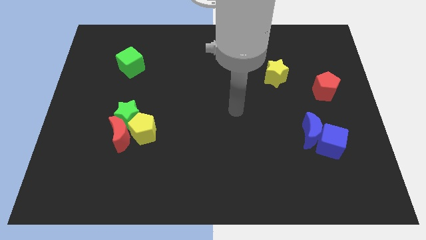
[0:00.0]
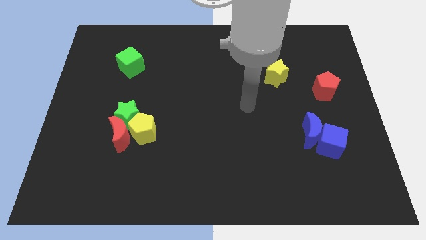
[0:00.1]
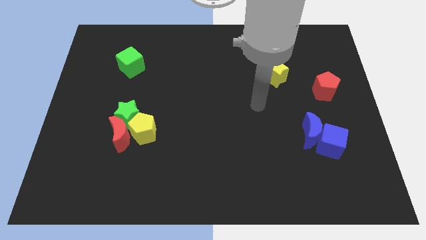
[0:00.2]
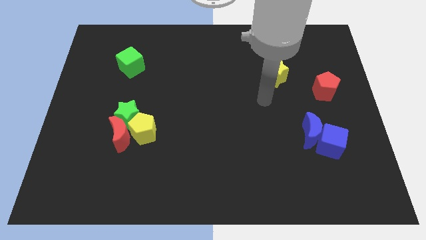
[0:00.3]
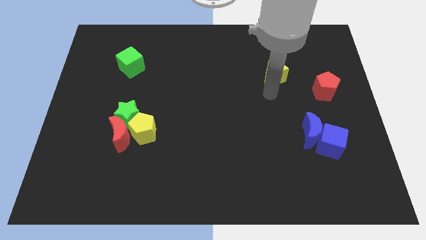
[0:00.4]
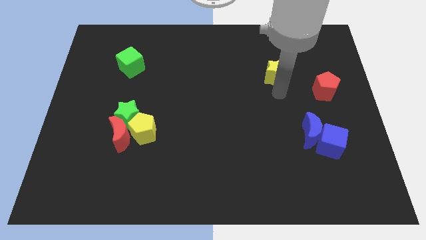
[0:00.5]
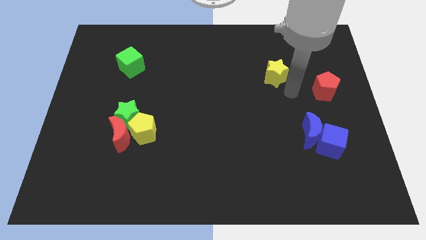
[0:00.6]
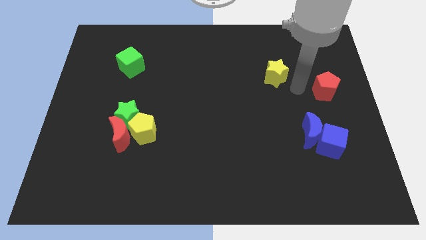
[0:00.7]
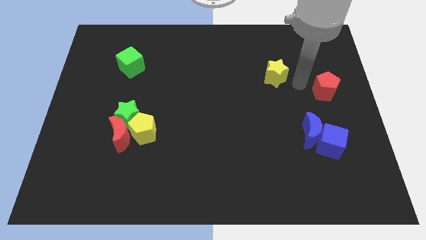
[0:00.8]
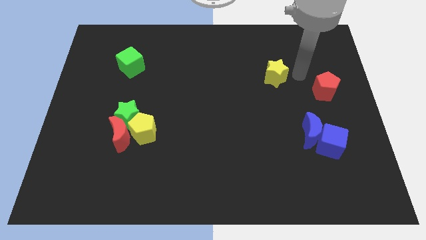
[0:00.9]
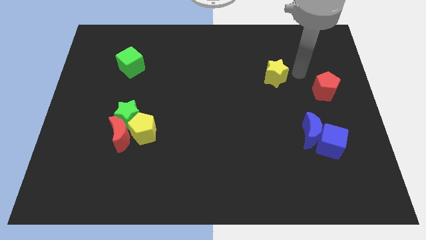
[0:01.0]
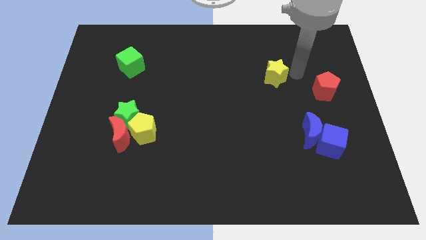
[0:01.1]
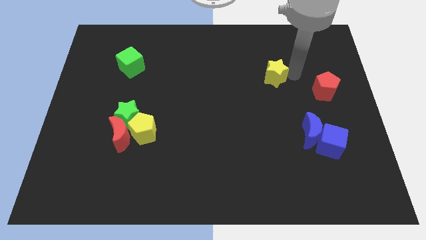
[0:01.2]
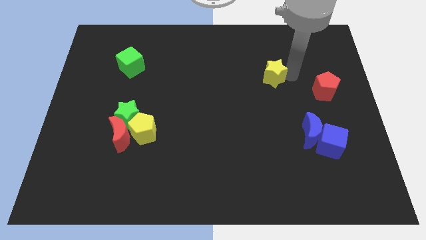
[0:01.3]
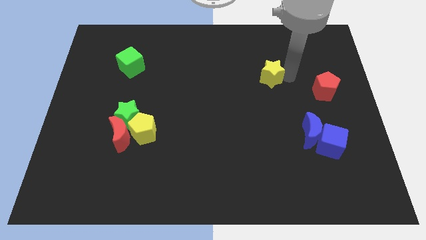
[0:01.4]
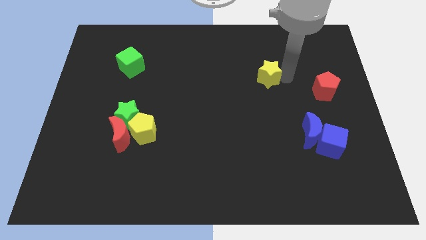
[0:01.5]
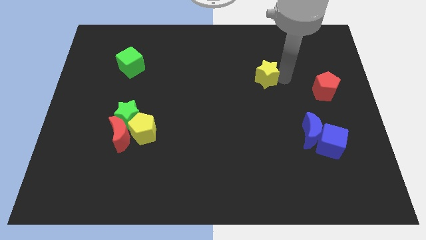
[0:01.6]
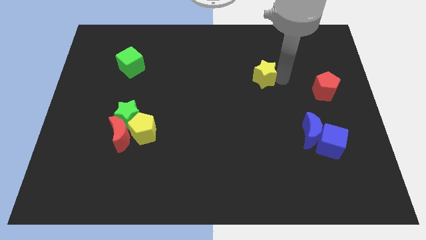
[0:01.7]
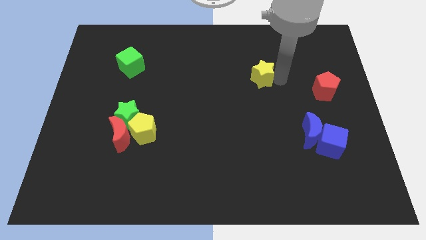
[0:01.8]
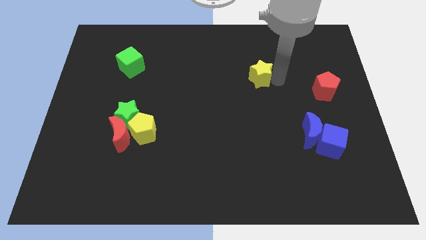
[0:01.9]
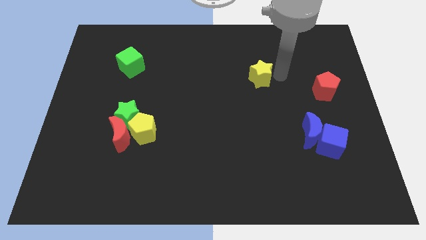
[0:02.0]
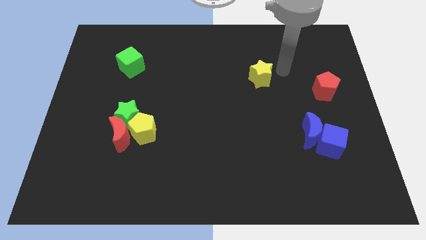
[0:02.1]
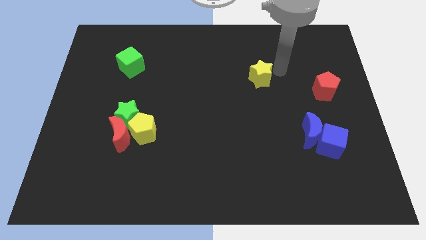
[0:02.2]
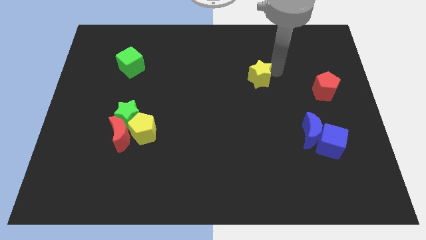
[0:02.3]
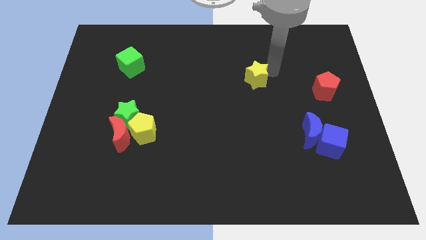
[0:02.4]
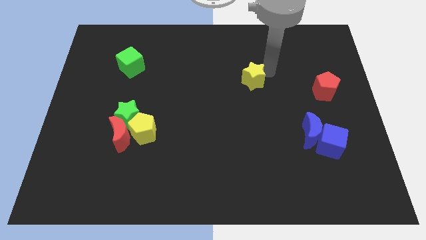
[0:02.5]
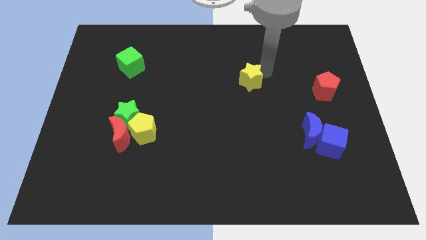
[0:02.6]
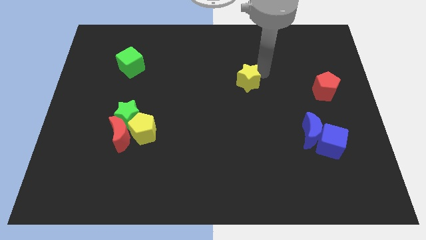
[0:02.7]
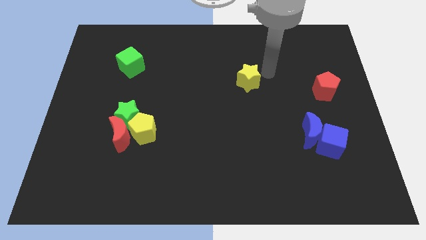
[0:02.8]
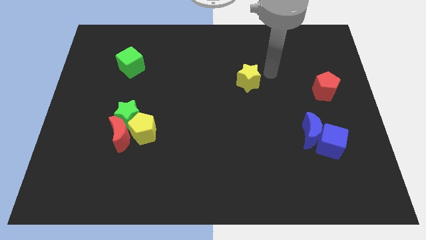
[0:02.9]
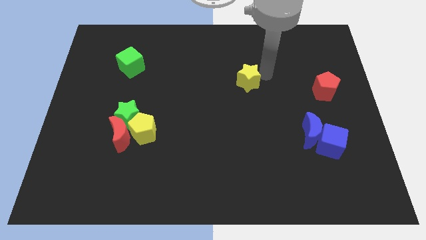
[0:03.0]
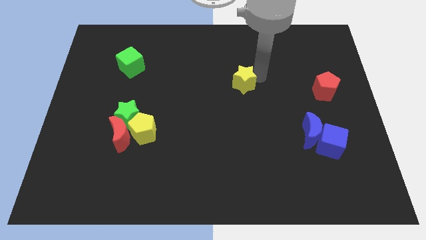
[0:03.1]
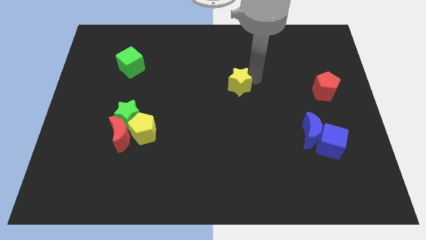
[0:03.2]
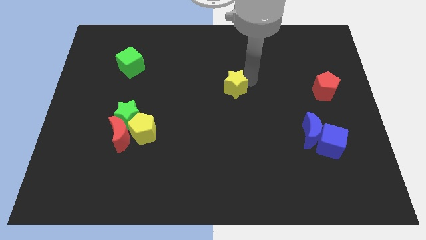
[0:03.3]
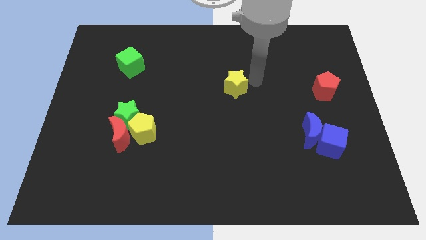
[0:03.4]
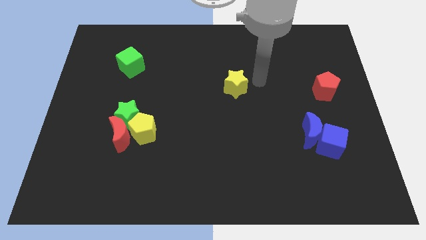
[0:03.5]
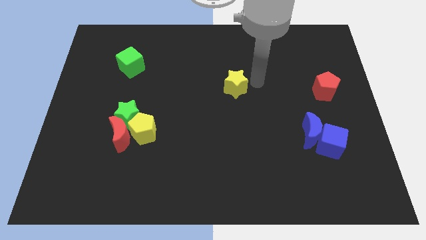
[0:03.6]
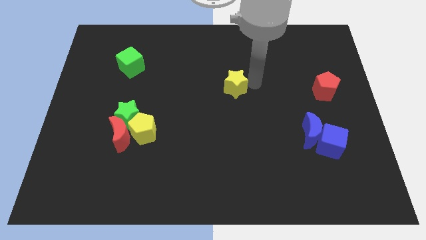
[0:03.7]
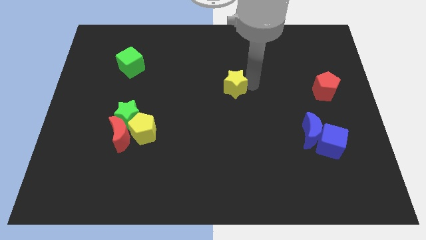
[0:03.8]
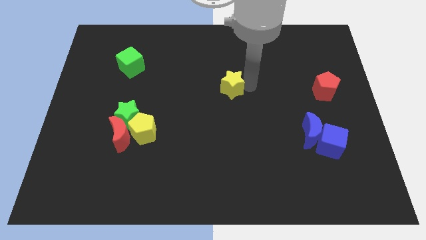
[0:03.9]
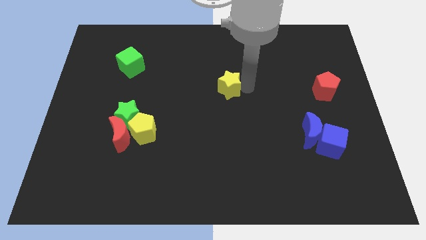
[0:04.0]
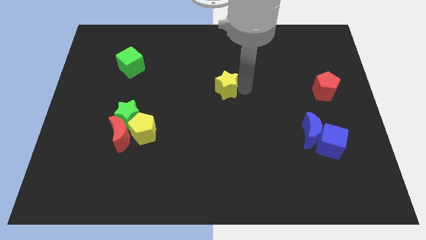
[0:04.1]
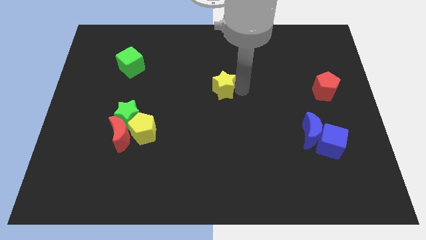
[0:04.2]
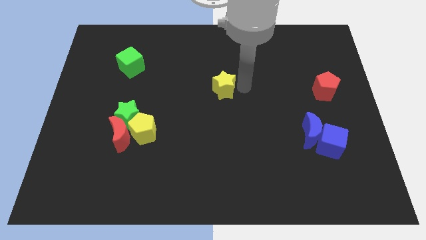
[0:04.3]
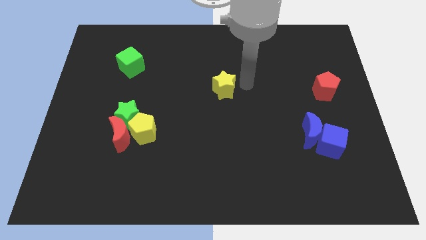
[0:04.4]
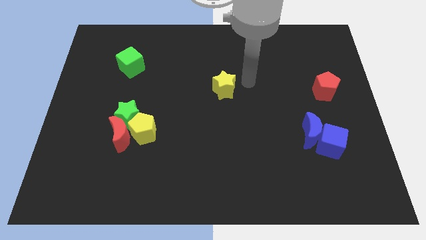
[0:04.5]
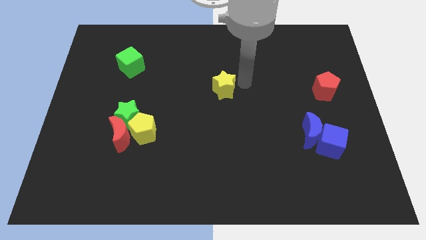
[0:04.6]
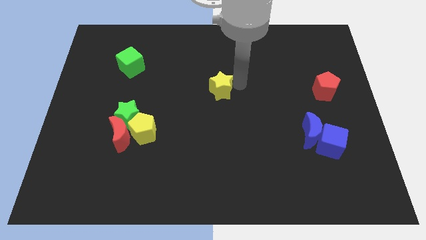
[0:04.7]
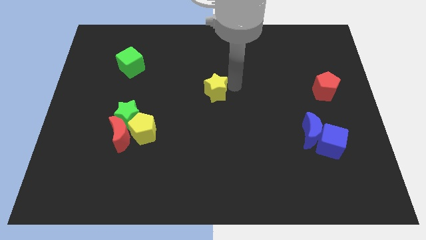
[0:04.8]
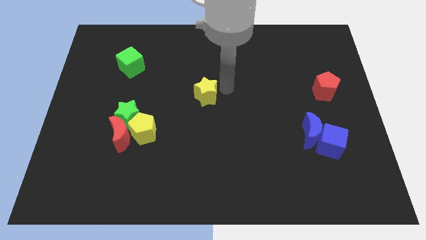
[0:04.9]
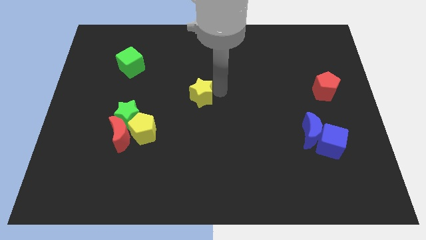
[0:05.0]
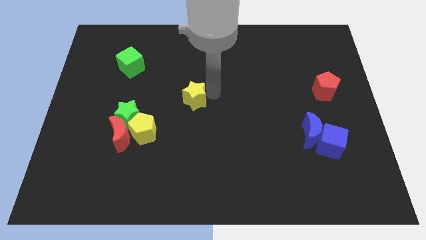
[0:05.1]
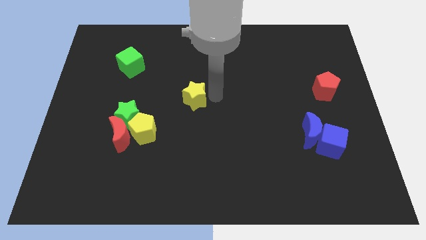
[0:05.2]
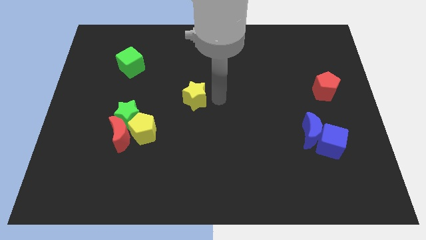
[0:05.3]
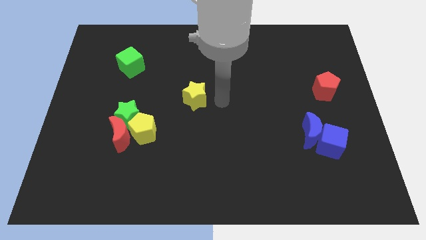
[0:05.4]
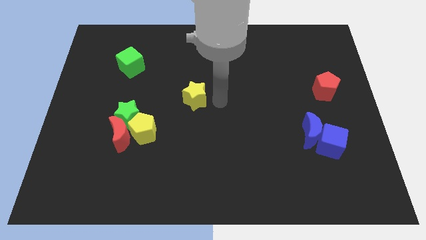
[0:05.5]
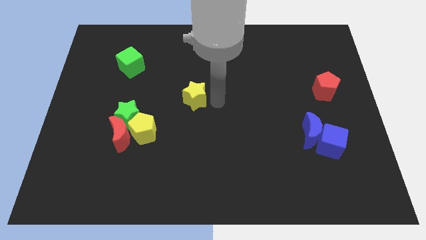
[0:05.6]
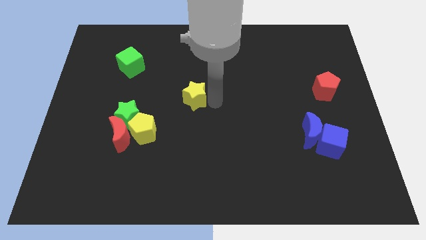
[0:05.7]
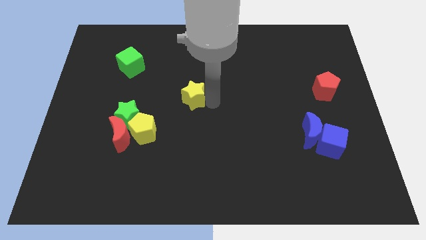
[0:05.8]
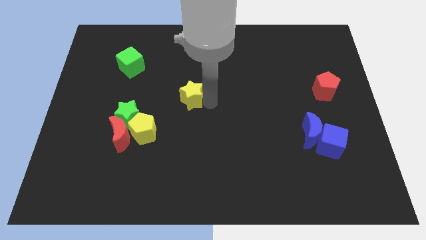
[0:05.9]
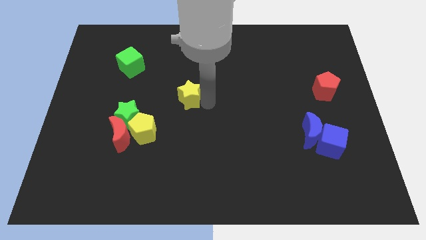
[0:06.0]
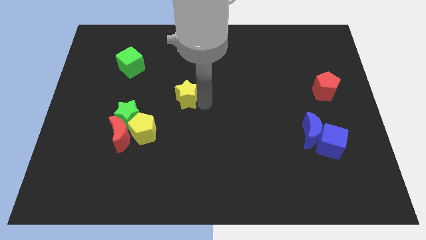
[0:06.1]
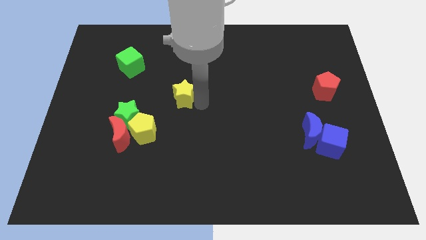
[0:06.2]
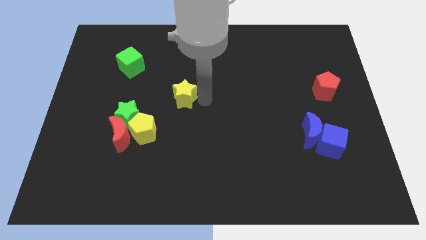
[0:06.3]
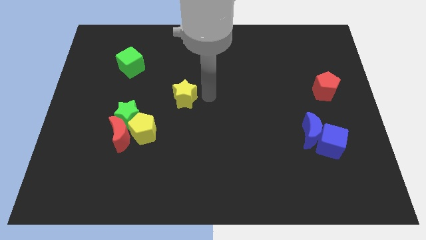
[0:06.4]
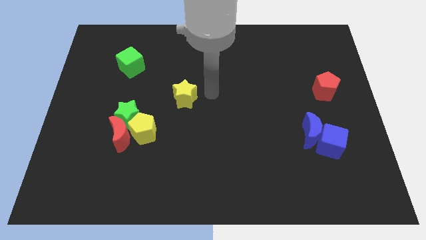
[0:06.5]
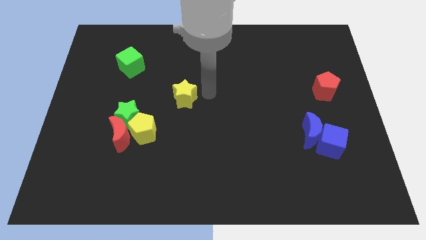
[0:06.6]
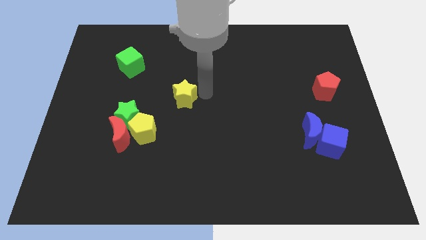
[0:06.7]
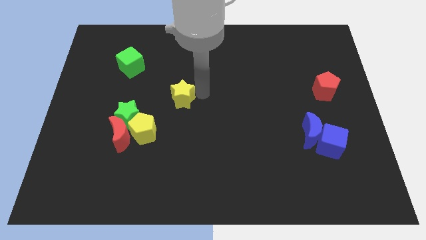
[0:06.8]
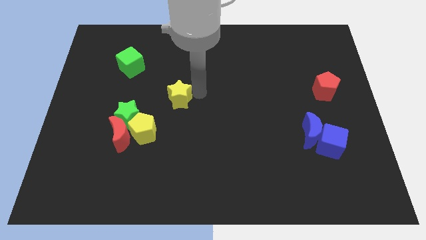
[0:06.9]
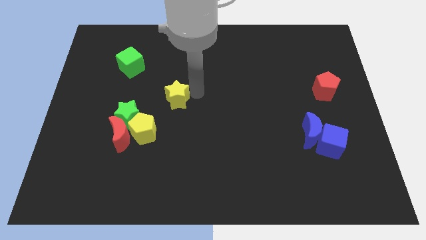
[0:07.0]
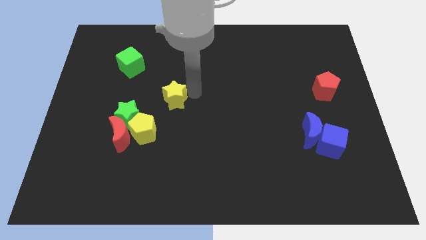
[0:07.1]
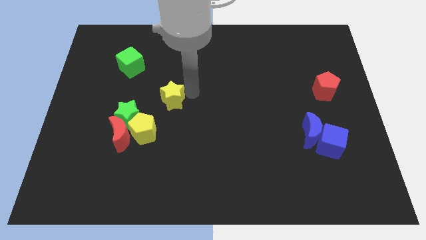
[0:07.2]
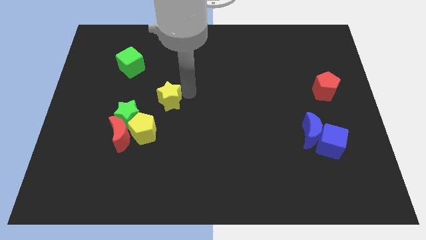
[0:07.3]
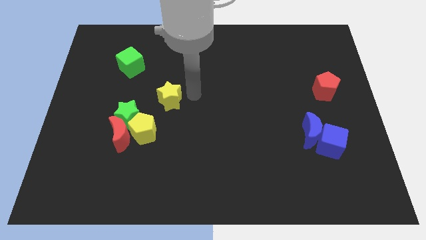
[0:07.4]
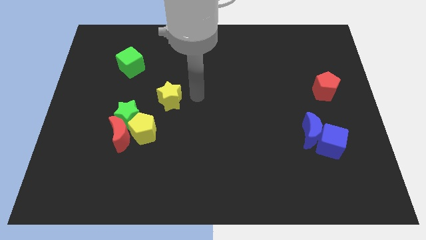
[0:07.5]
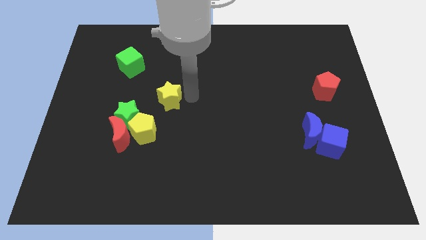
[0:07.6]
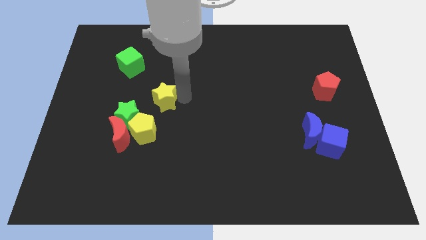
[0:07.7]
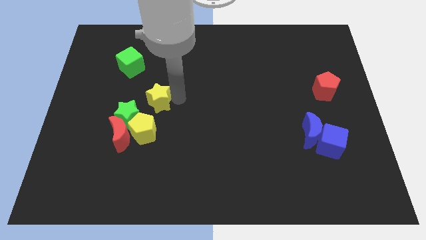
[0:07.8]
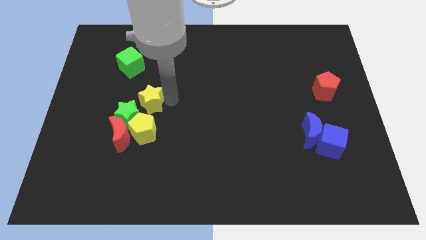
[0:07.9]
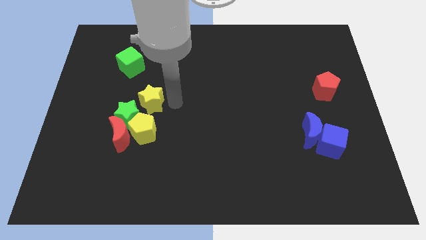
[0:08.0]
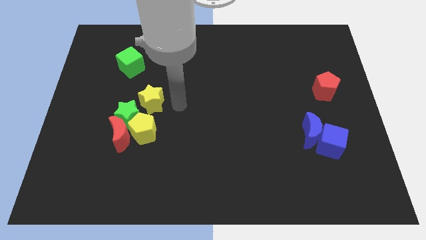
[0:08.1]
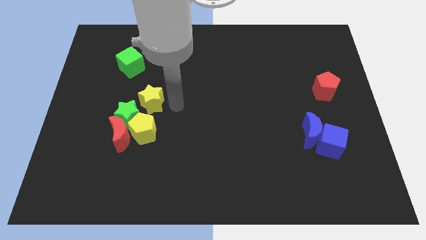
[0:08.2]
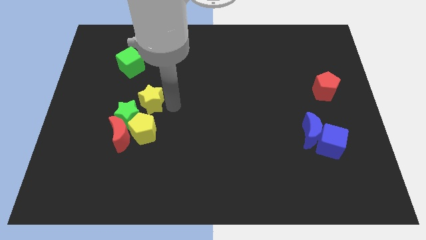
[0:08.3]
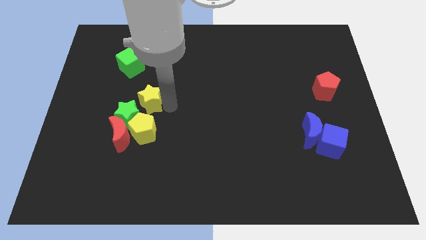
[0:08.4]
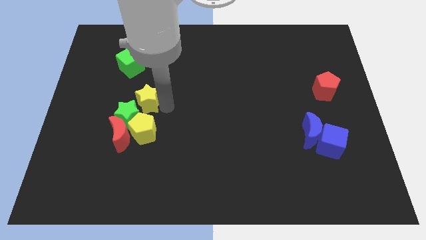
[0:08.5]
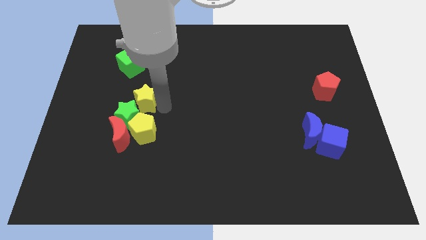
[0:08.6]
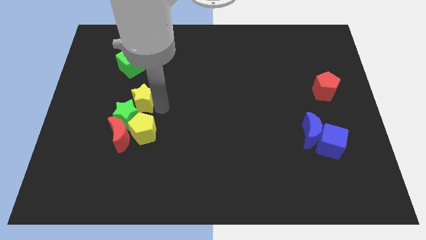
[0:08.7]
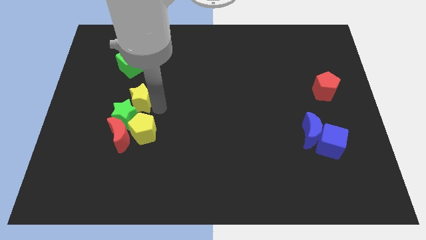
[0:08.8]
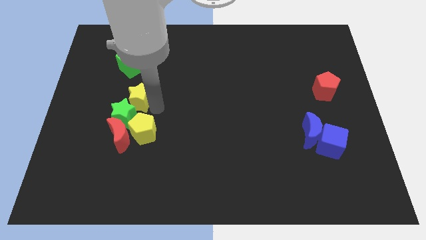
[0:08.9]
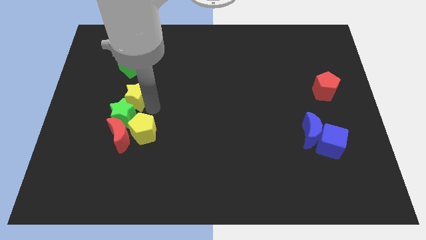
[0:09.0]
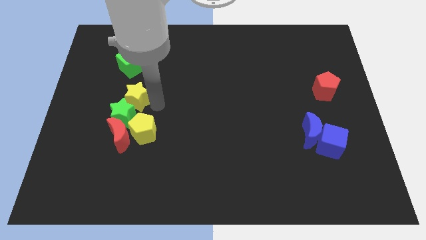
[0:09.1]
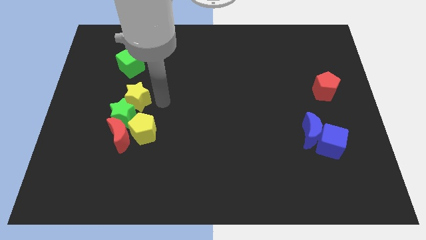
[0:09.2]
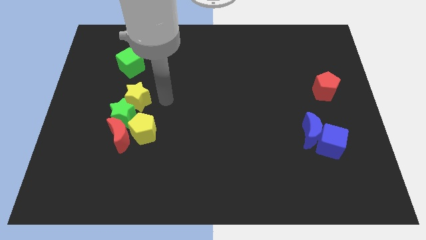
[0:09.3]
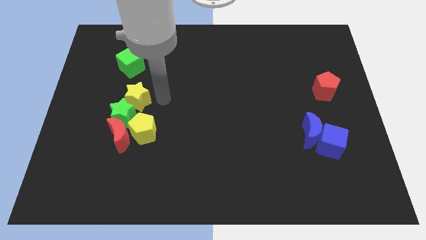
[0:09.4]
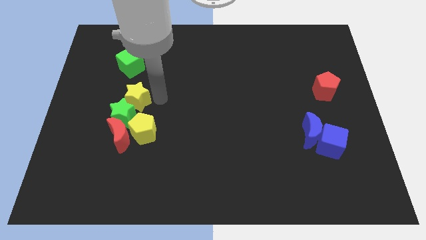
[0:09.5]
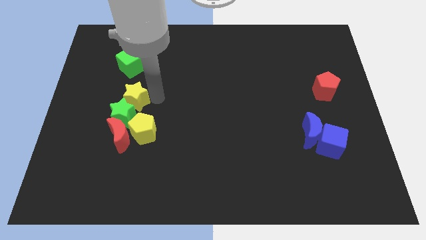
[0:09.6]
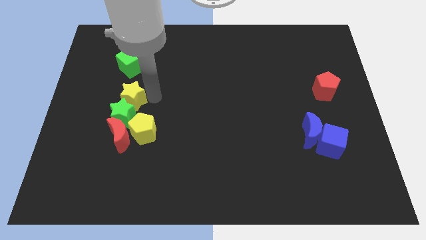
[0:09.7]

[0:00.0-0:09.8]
put the yellow star to the top left side of the green star
